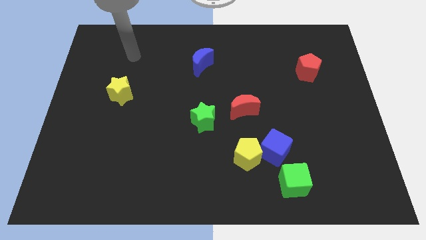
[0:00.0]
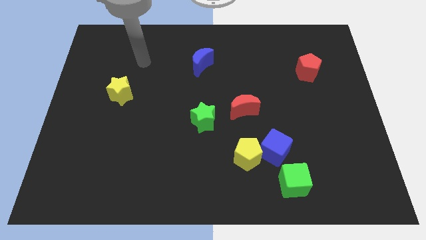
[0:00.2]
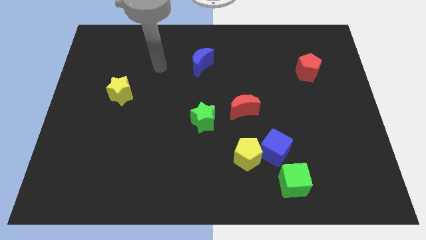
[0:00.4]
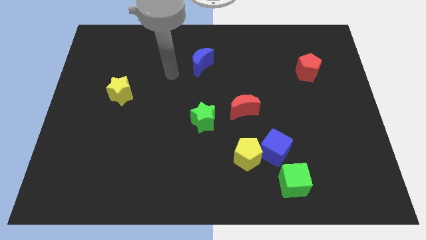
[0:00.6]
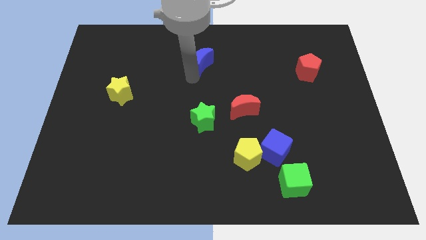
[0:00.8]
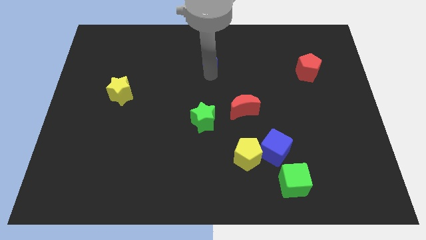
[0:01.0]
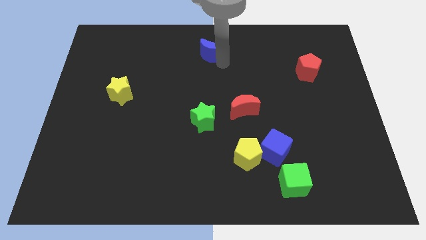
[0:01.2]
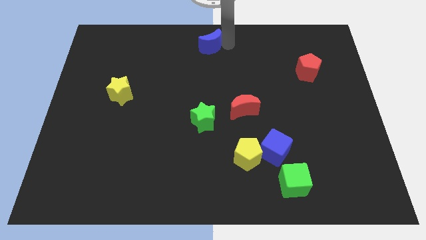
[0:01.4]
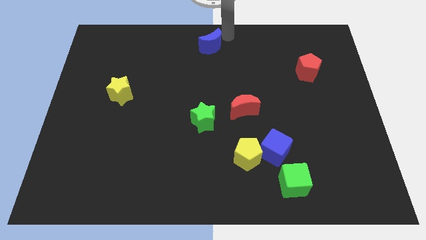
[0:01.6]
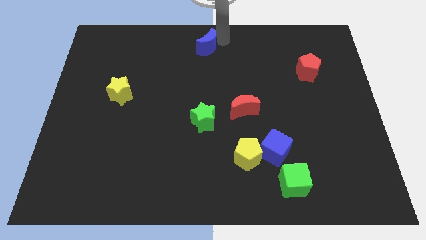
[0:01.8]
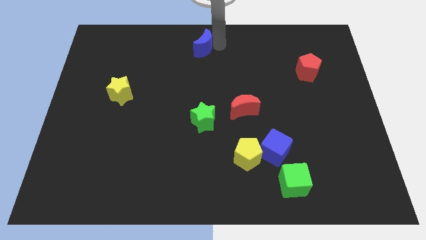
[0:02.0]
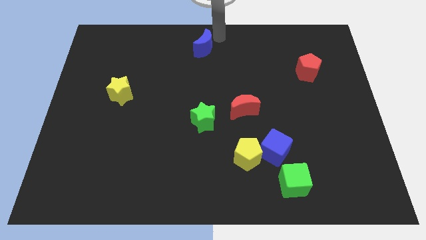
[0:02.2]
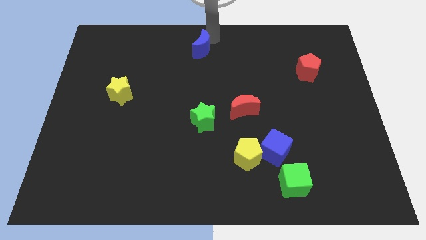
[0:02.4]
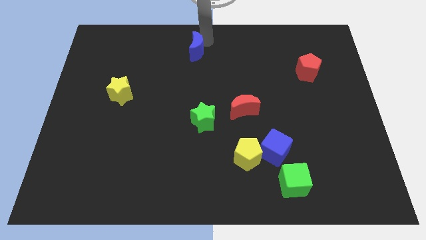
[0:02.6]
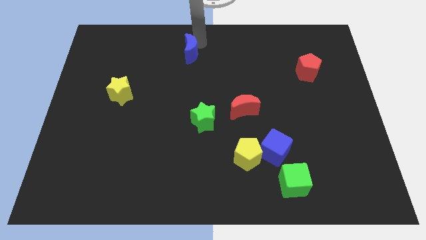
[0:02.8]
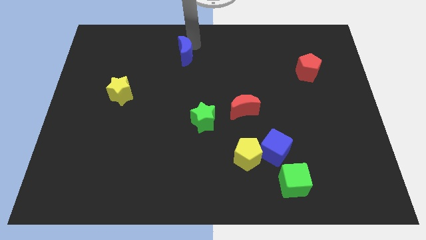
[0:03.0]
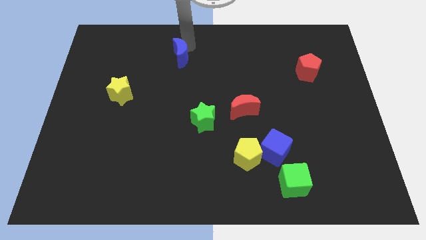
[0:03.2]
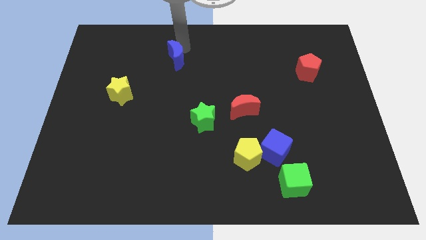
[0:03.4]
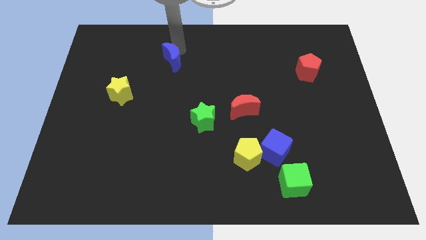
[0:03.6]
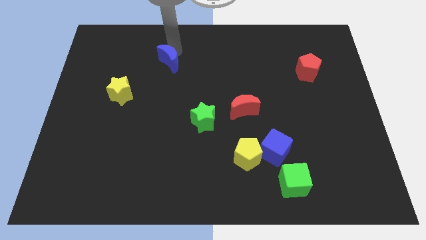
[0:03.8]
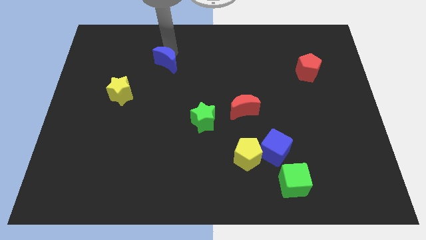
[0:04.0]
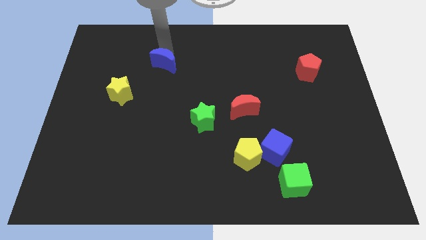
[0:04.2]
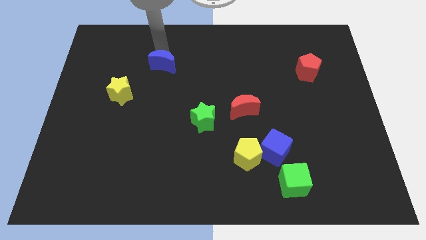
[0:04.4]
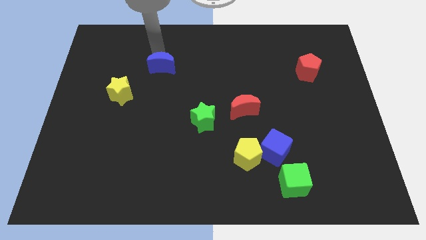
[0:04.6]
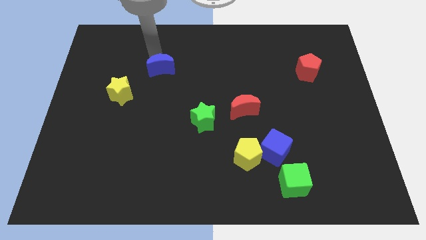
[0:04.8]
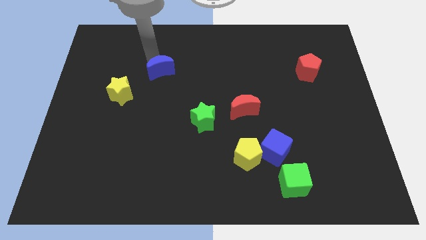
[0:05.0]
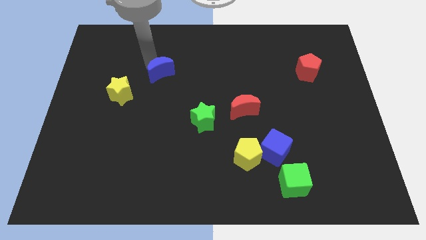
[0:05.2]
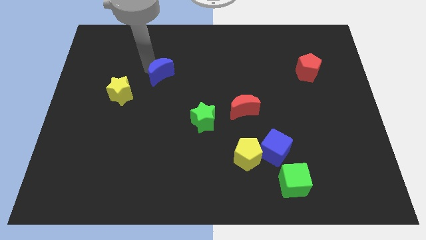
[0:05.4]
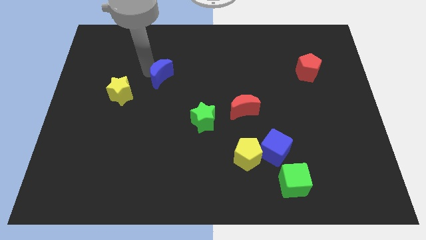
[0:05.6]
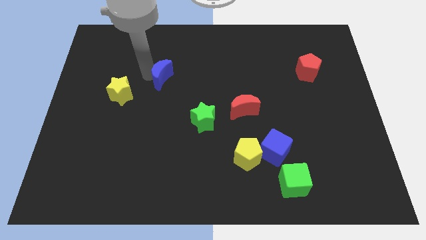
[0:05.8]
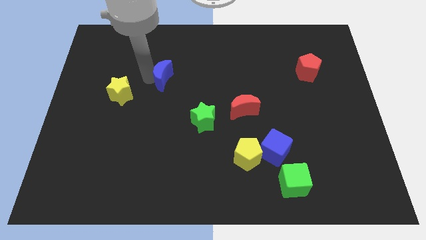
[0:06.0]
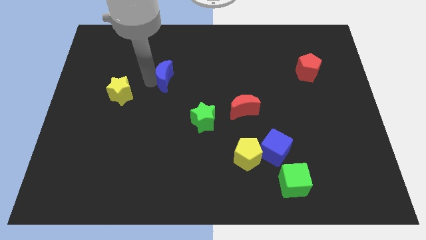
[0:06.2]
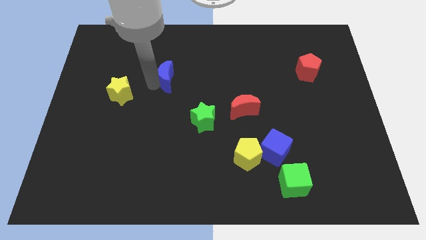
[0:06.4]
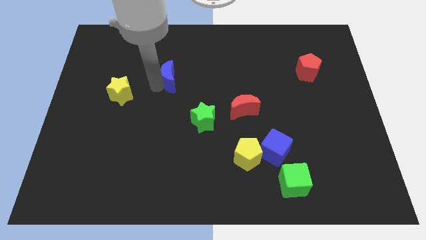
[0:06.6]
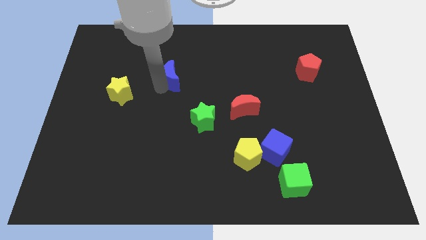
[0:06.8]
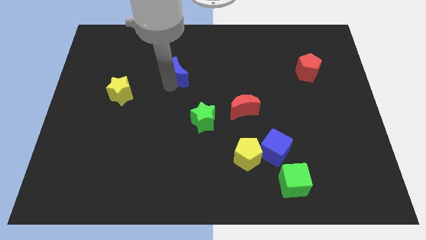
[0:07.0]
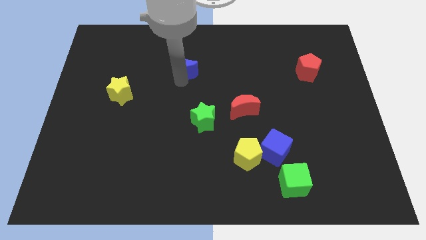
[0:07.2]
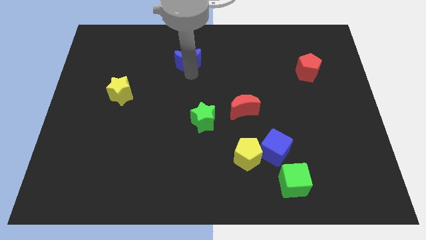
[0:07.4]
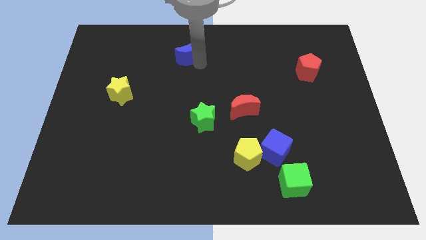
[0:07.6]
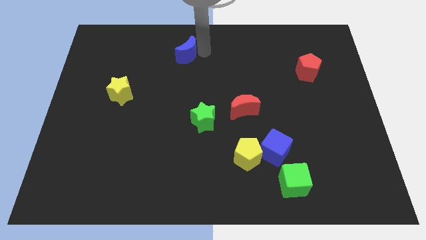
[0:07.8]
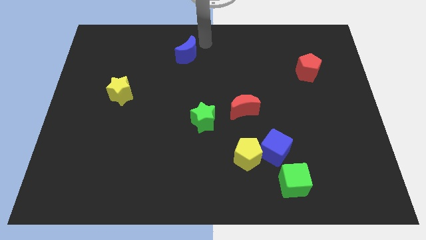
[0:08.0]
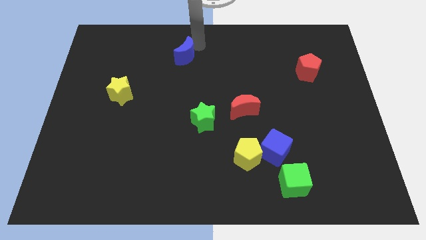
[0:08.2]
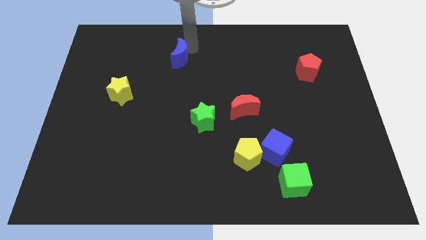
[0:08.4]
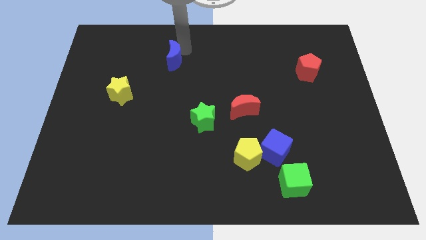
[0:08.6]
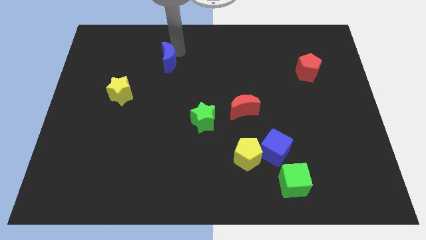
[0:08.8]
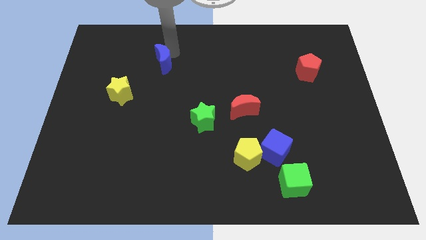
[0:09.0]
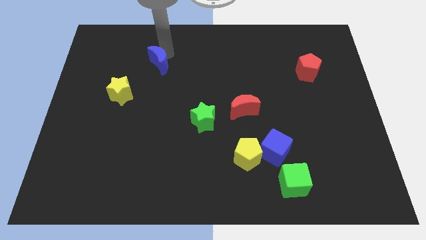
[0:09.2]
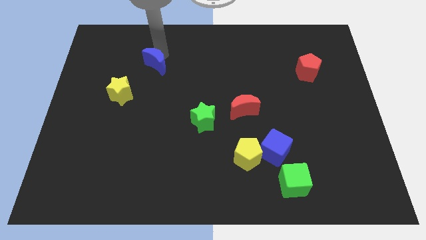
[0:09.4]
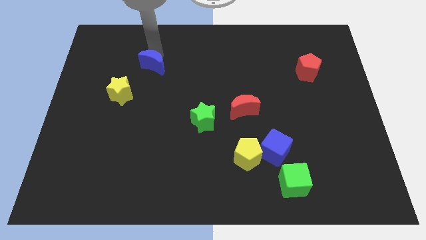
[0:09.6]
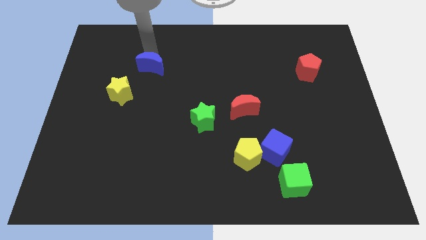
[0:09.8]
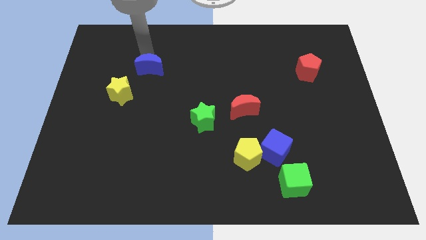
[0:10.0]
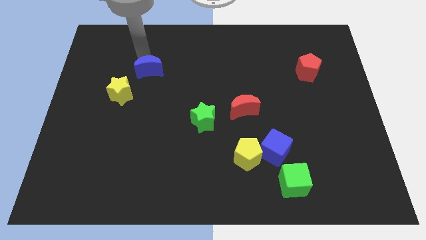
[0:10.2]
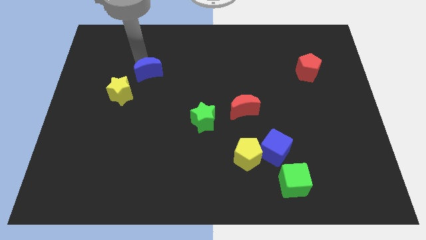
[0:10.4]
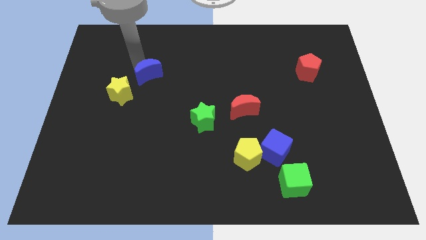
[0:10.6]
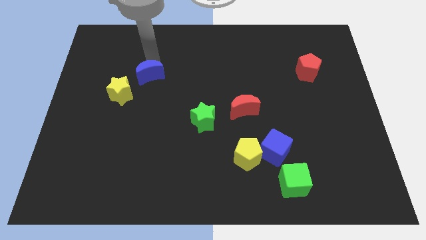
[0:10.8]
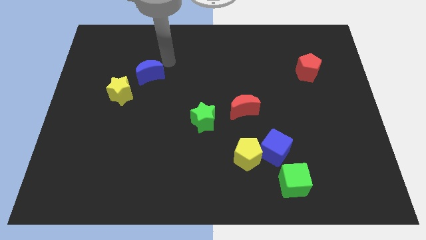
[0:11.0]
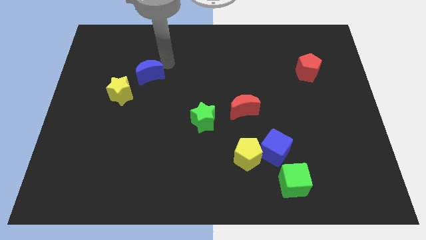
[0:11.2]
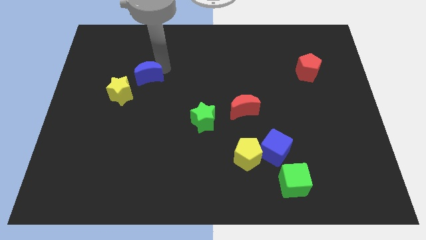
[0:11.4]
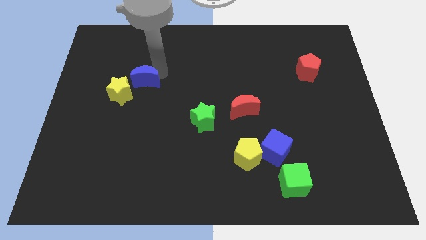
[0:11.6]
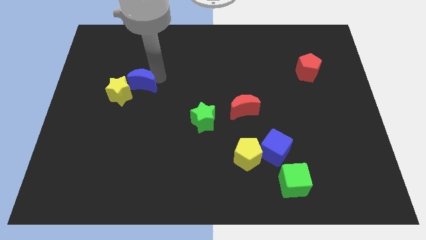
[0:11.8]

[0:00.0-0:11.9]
put the blue moon to the yellow star
